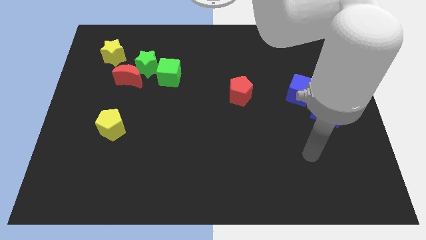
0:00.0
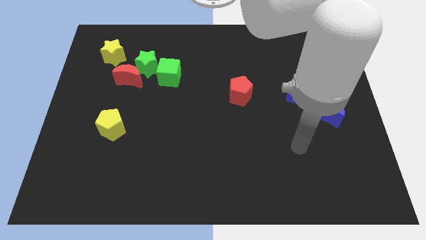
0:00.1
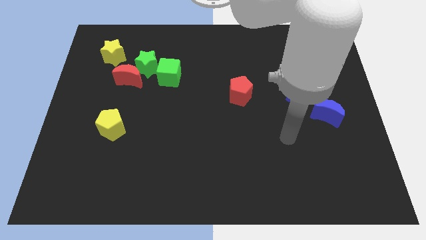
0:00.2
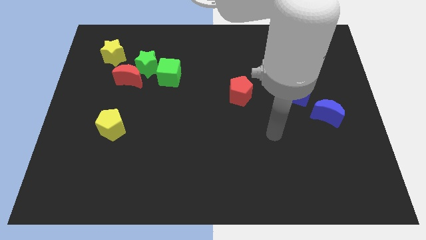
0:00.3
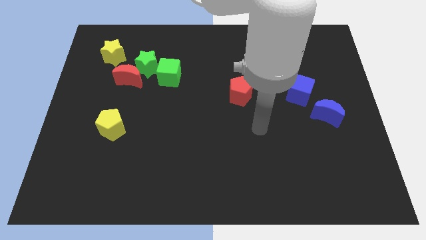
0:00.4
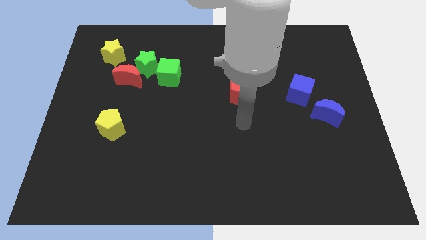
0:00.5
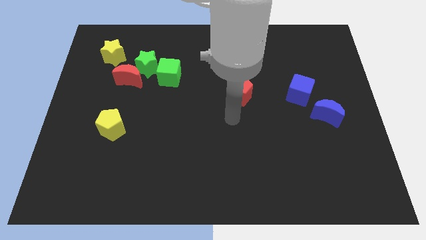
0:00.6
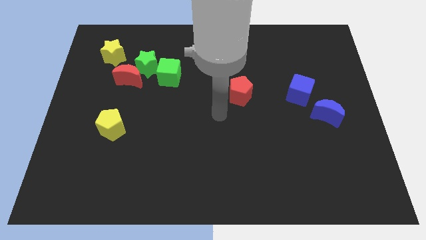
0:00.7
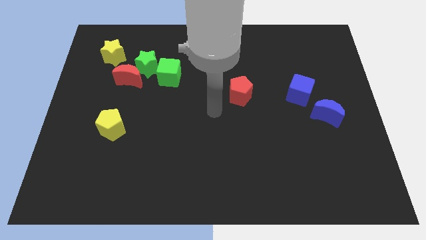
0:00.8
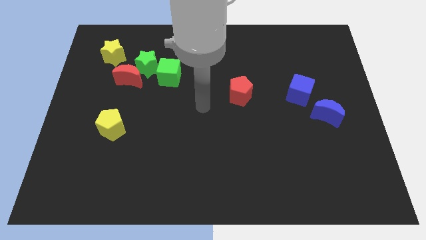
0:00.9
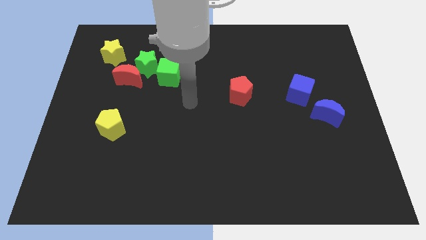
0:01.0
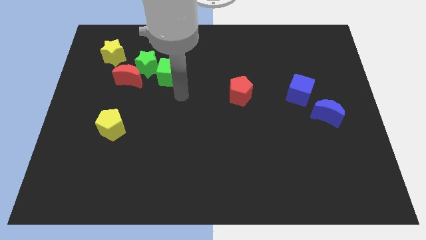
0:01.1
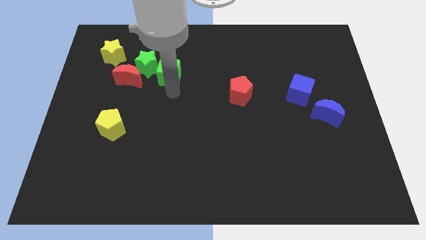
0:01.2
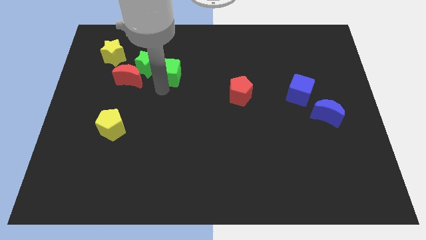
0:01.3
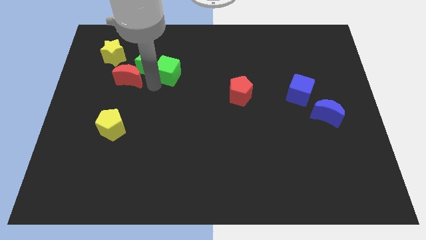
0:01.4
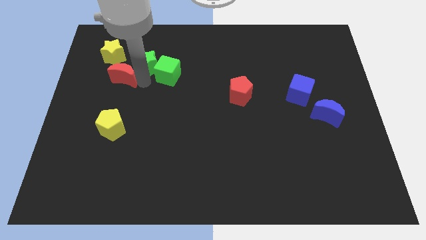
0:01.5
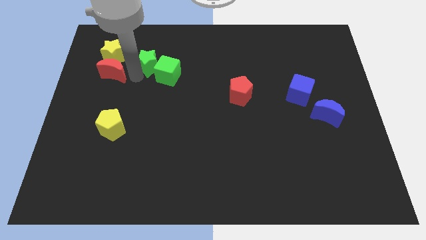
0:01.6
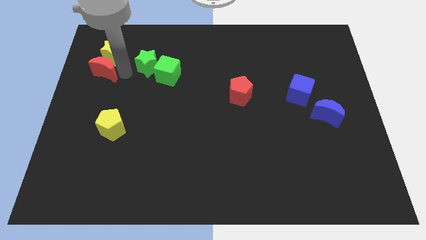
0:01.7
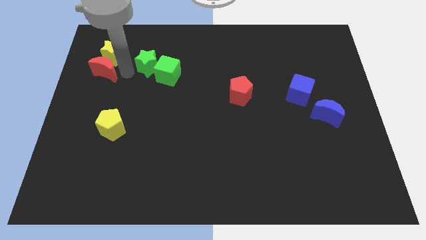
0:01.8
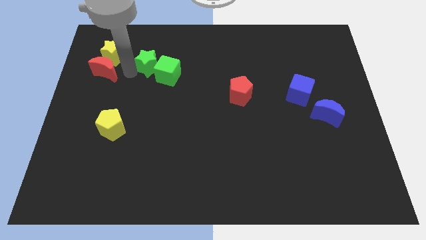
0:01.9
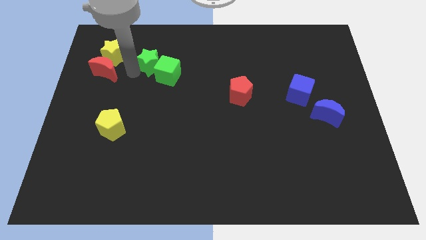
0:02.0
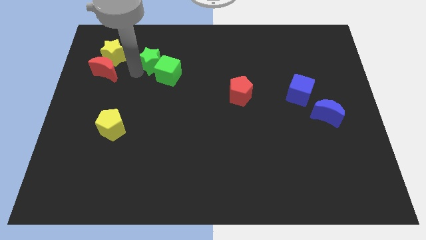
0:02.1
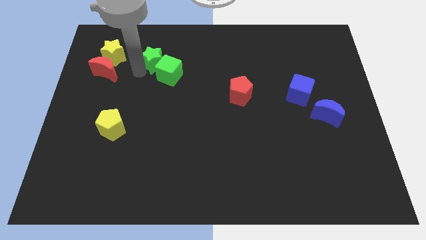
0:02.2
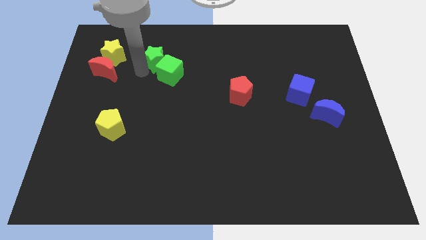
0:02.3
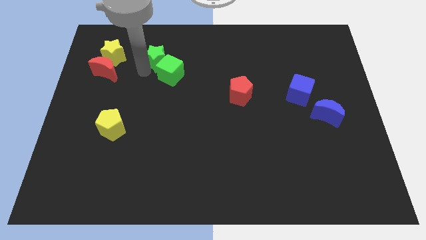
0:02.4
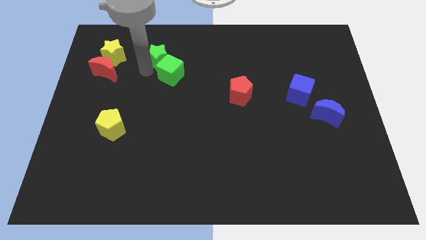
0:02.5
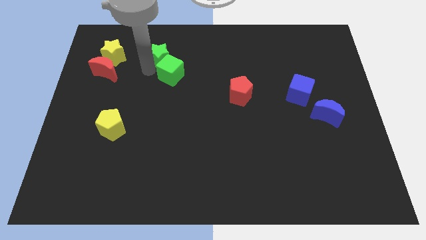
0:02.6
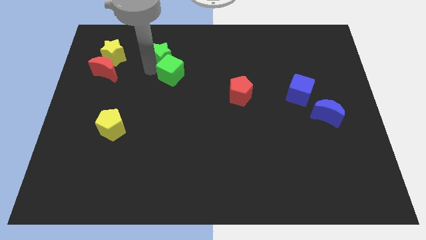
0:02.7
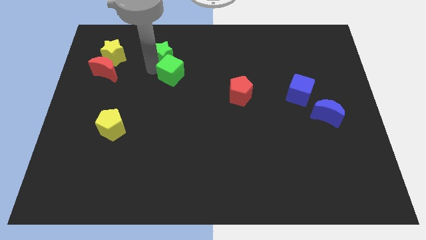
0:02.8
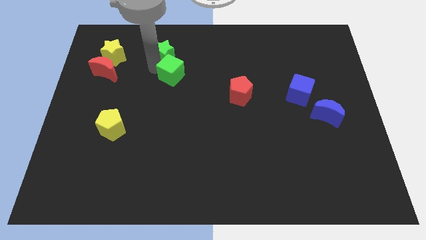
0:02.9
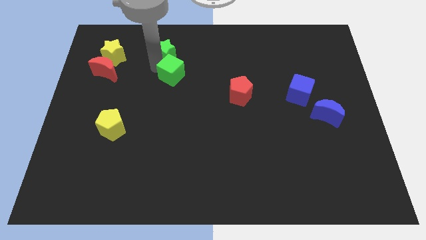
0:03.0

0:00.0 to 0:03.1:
pull the green star apart from the red moon, green cube, and yellow star

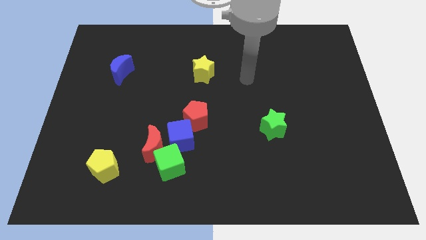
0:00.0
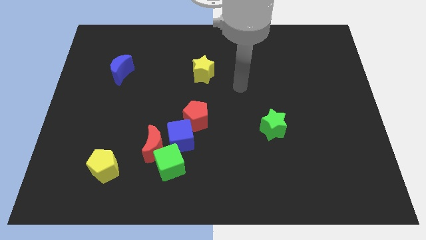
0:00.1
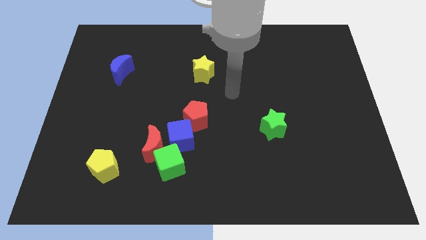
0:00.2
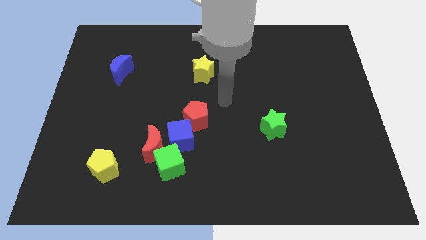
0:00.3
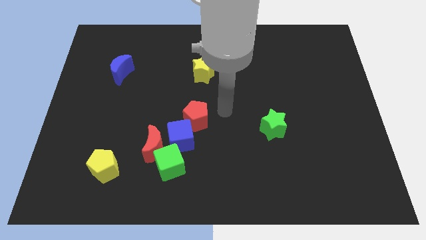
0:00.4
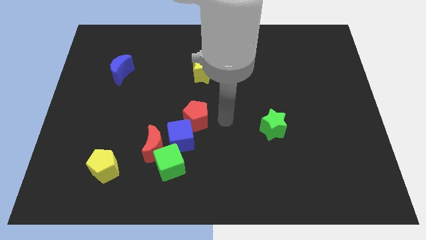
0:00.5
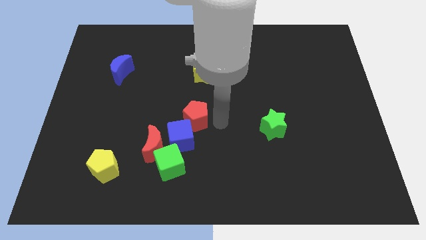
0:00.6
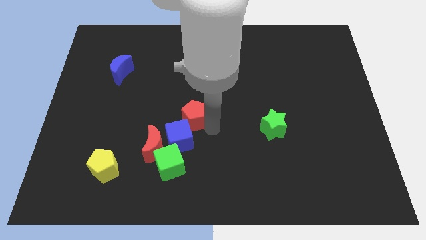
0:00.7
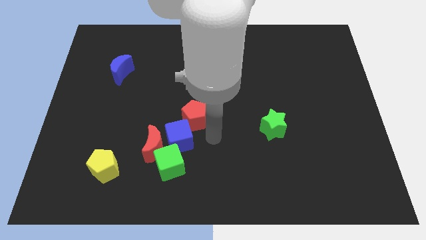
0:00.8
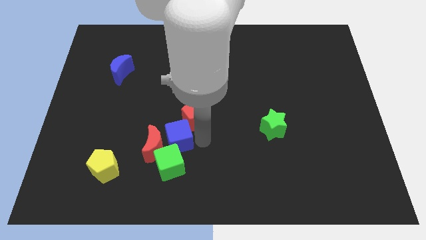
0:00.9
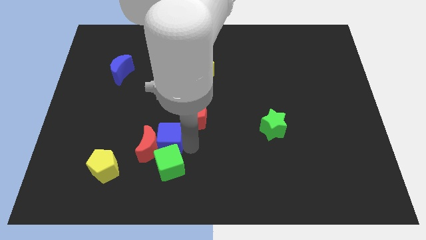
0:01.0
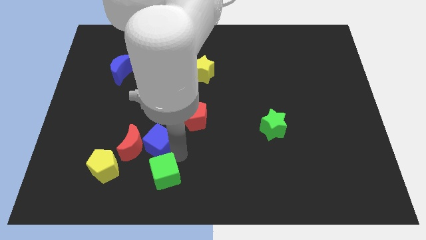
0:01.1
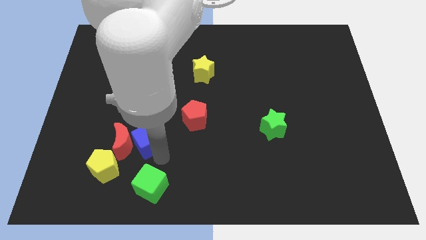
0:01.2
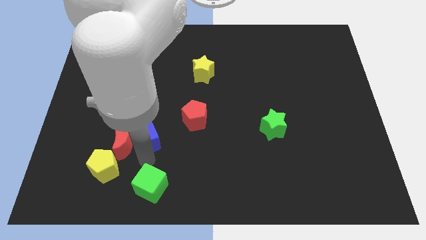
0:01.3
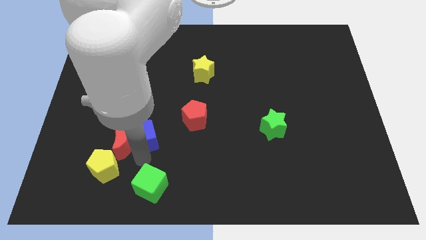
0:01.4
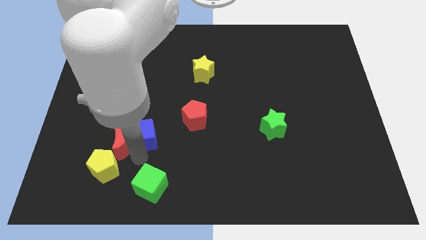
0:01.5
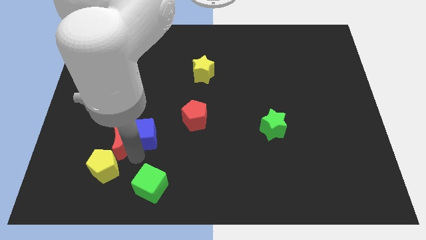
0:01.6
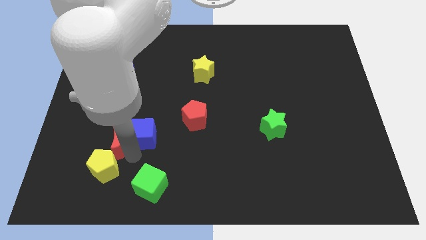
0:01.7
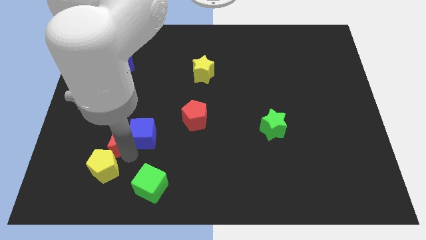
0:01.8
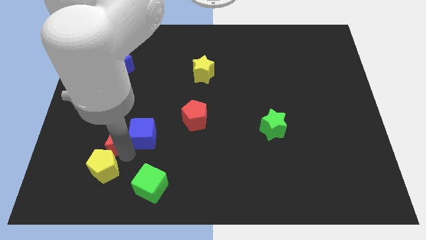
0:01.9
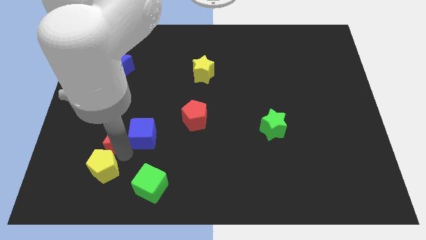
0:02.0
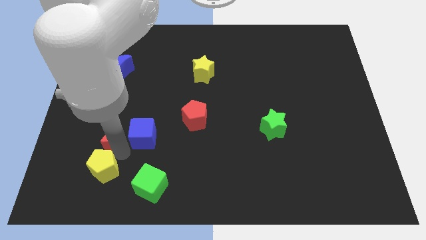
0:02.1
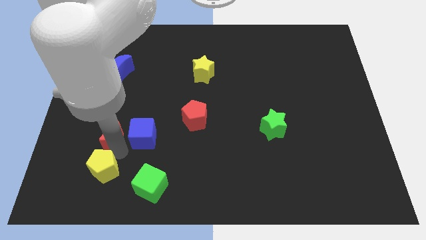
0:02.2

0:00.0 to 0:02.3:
pull the red moon apart from the green cube and blue cube

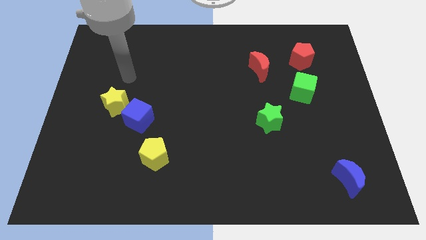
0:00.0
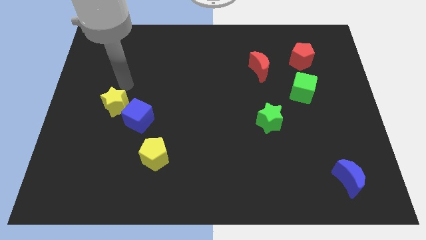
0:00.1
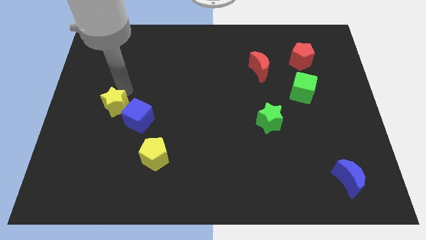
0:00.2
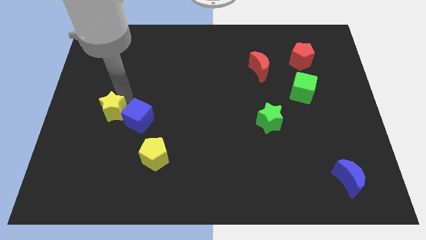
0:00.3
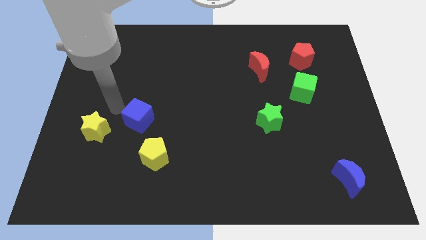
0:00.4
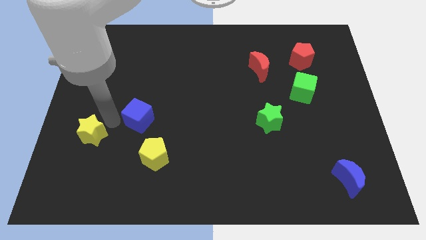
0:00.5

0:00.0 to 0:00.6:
pull the blue cube apart from the yellow star

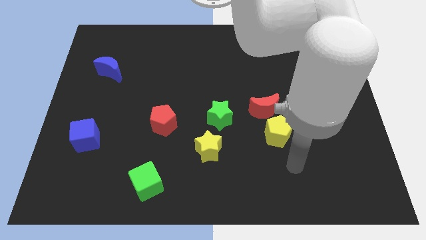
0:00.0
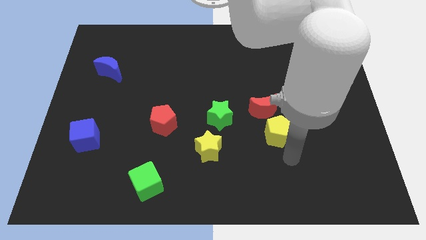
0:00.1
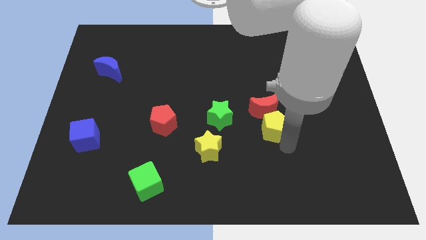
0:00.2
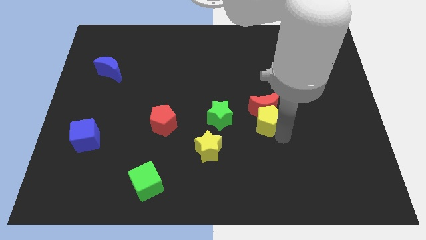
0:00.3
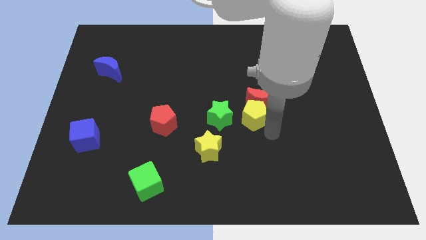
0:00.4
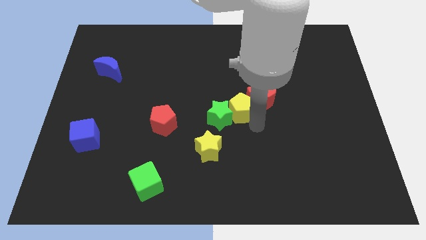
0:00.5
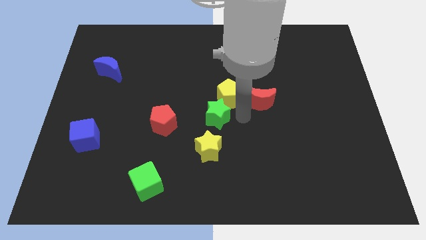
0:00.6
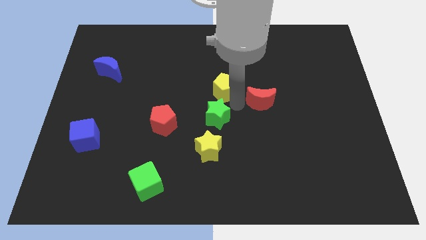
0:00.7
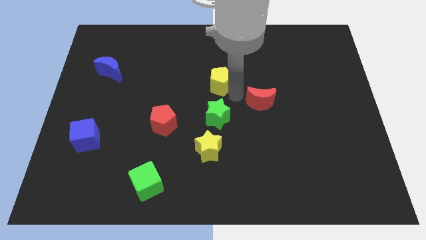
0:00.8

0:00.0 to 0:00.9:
separate the red moon from the yellow pentagon

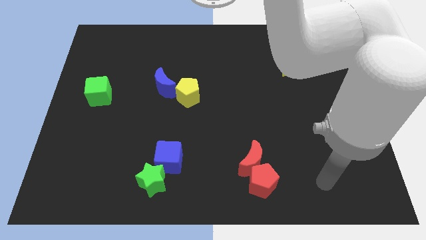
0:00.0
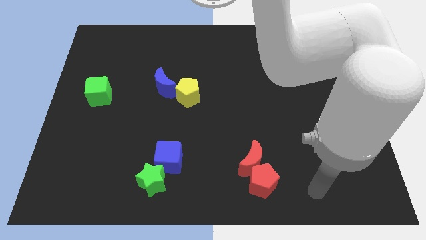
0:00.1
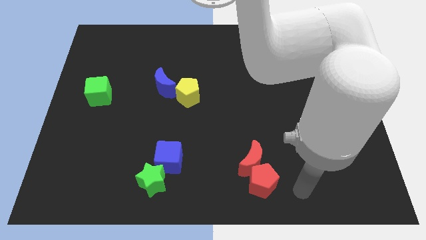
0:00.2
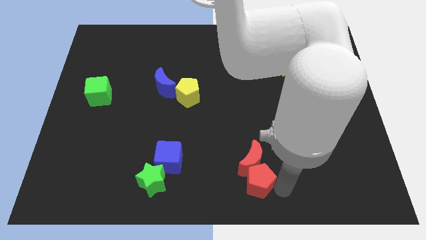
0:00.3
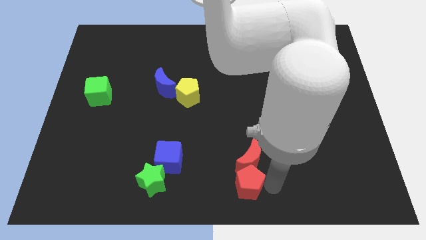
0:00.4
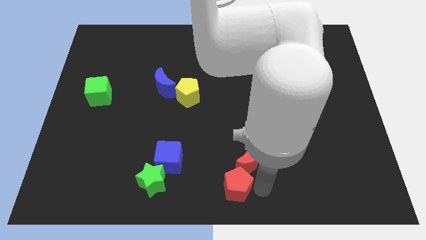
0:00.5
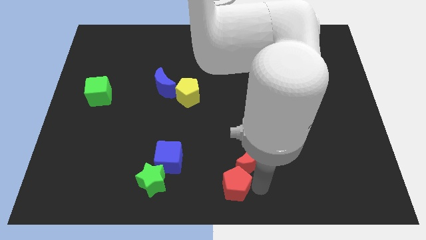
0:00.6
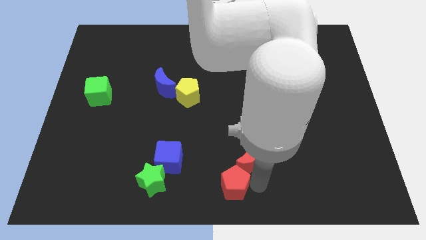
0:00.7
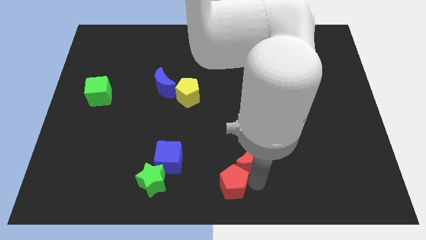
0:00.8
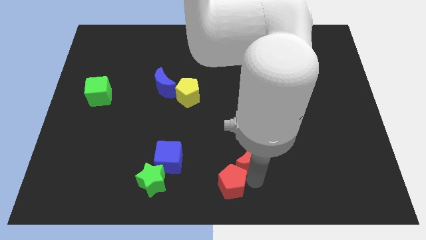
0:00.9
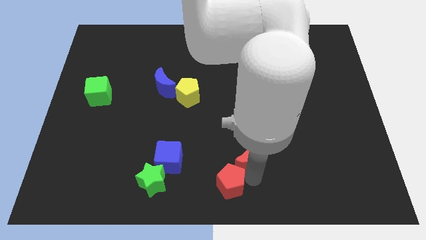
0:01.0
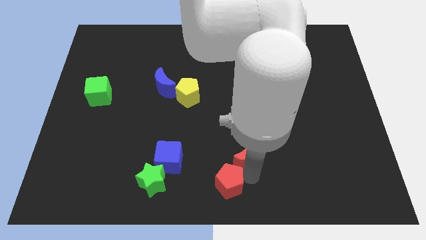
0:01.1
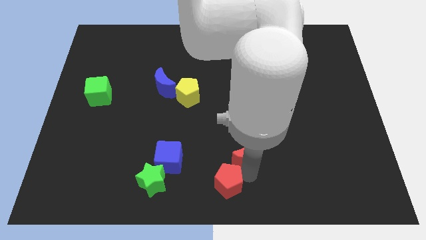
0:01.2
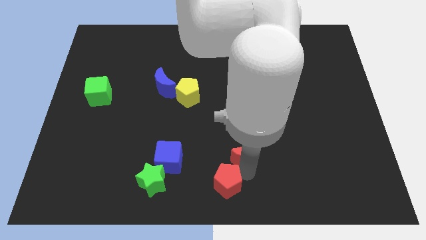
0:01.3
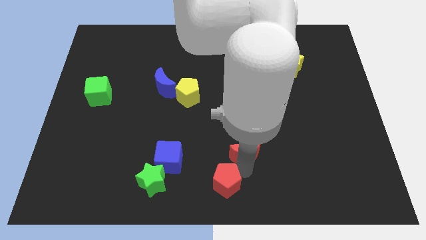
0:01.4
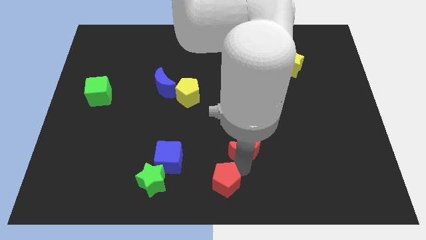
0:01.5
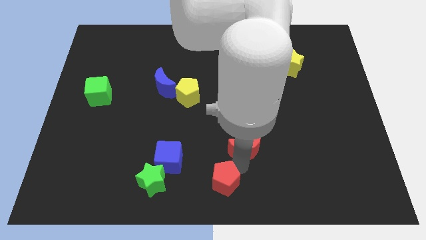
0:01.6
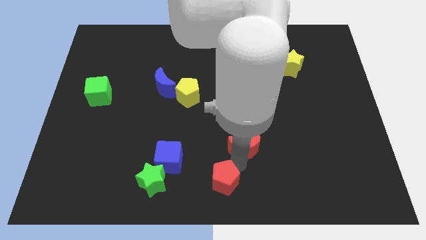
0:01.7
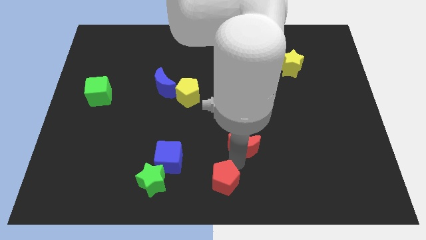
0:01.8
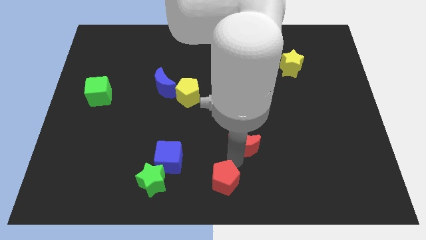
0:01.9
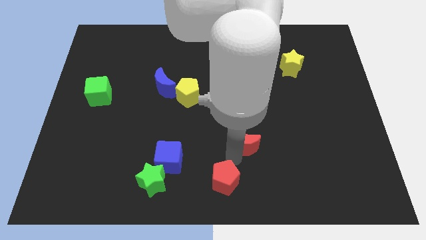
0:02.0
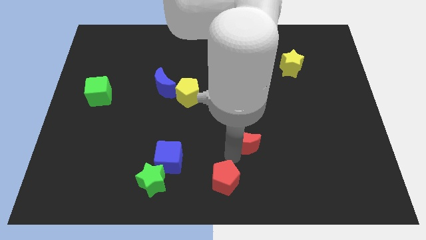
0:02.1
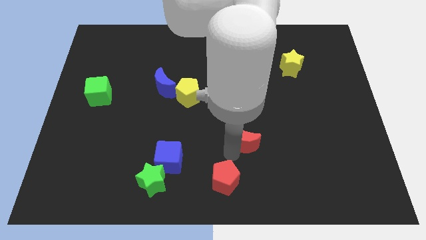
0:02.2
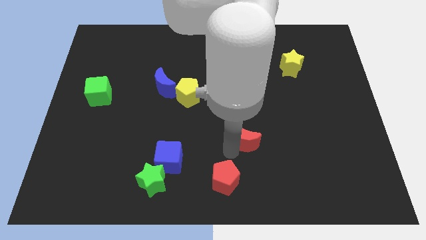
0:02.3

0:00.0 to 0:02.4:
pull the red moon apart from the red pentagon

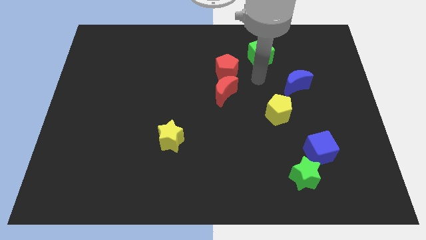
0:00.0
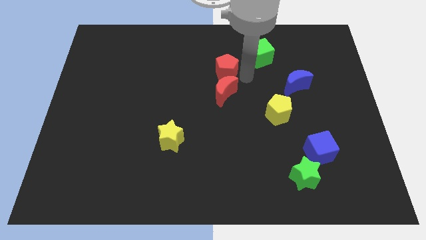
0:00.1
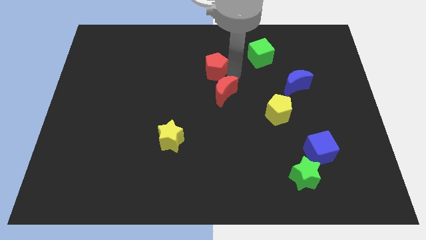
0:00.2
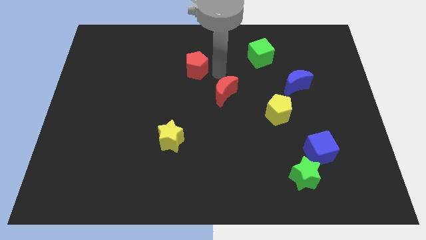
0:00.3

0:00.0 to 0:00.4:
separate the red moon from the red pentagon
